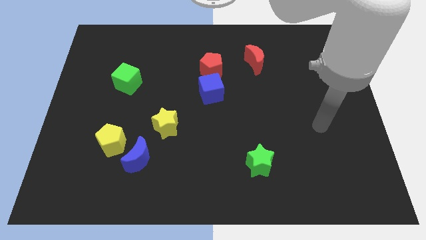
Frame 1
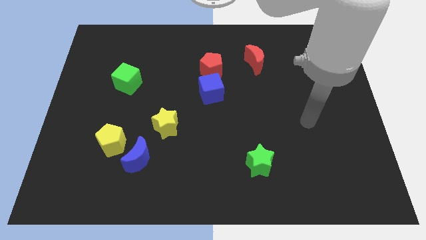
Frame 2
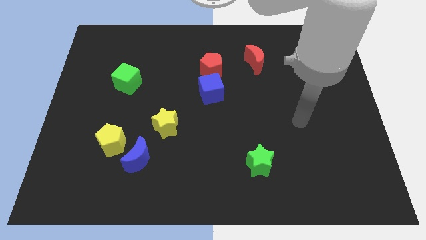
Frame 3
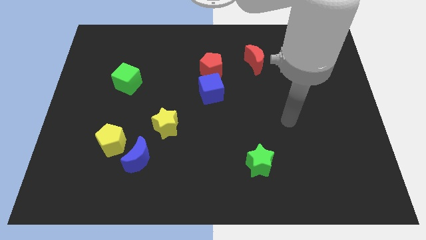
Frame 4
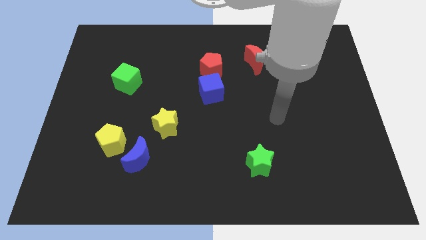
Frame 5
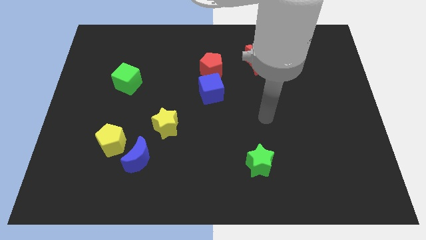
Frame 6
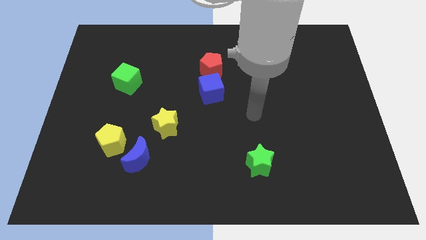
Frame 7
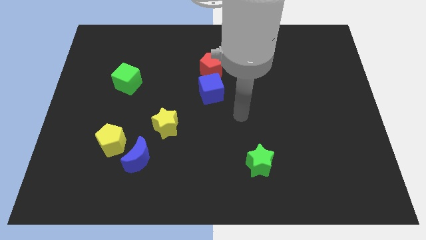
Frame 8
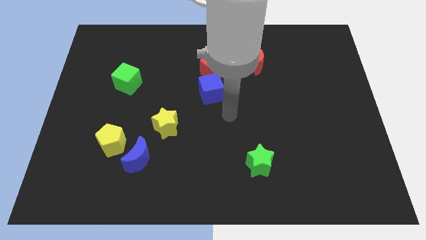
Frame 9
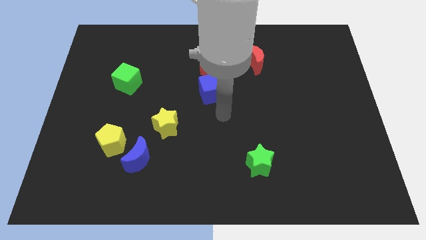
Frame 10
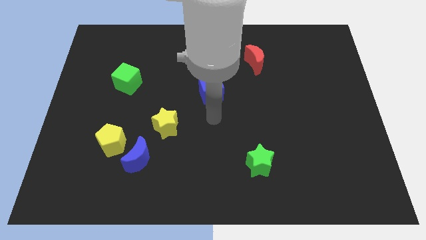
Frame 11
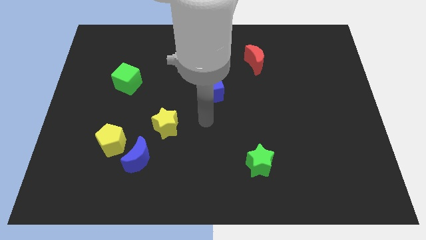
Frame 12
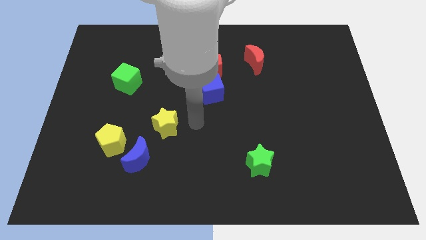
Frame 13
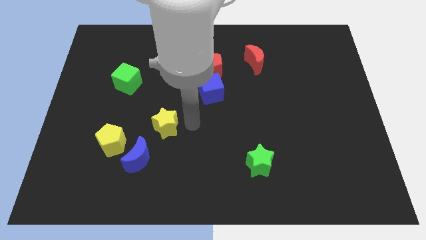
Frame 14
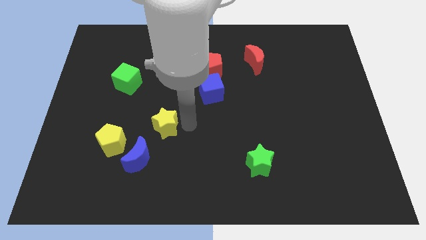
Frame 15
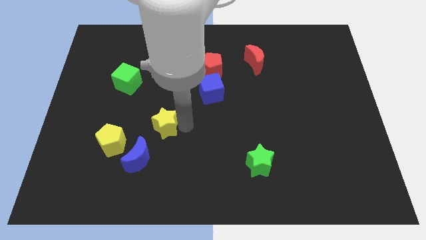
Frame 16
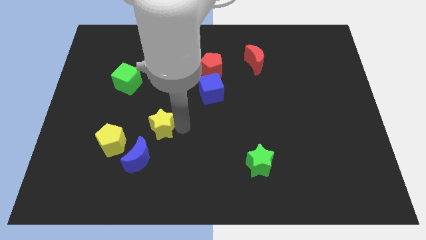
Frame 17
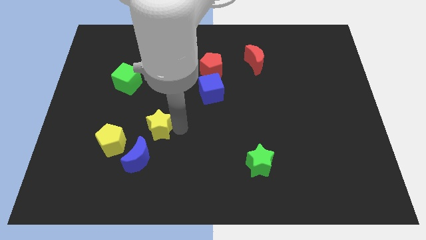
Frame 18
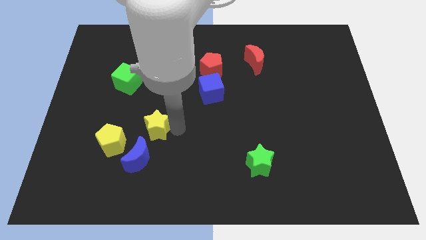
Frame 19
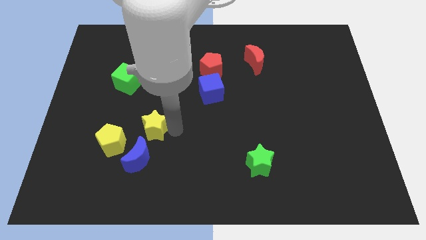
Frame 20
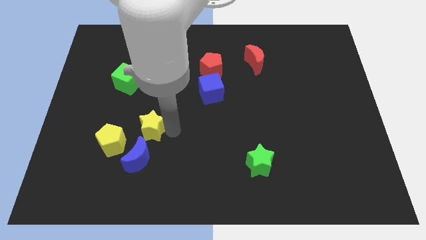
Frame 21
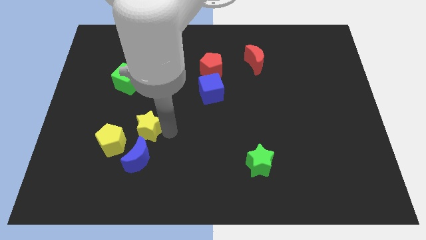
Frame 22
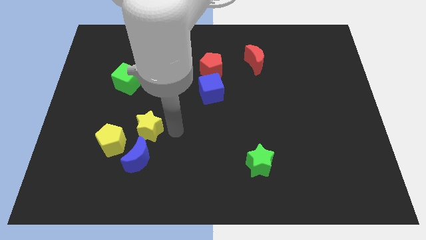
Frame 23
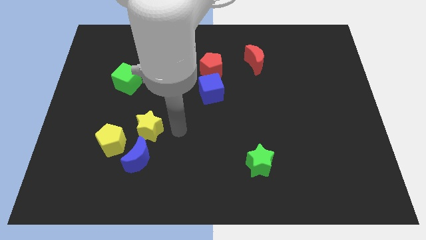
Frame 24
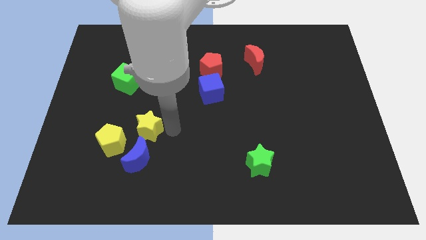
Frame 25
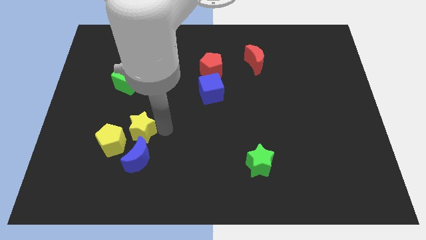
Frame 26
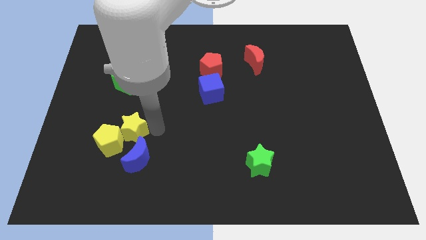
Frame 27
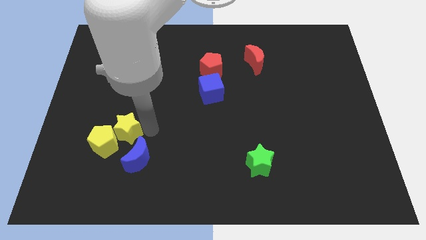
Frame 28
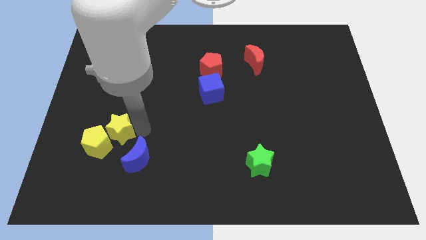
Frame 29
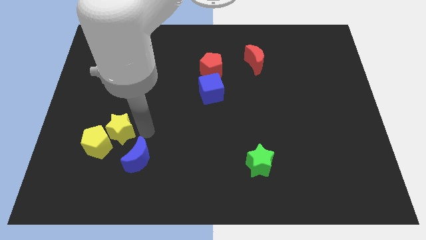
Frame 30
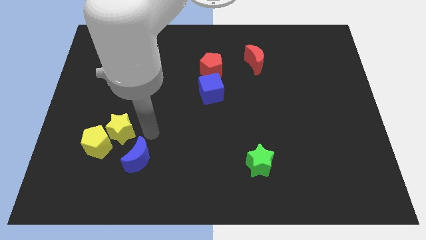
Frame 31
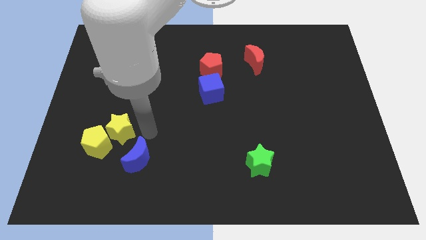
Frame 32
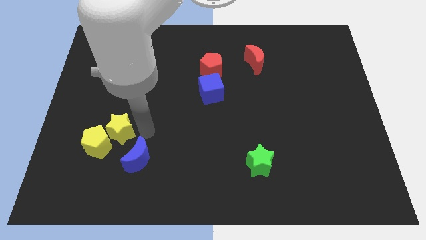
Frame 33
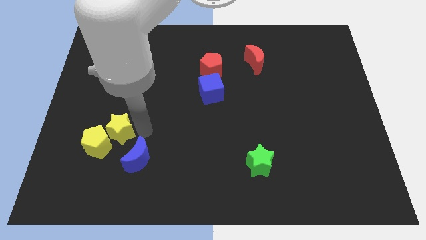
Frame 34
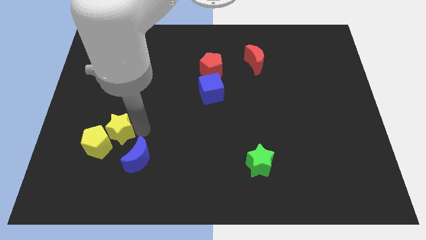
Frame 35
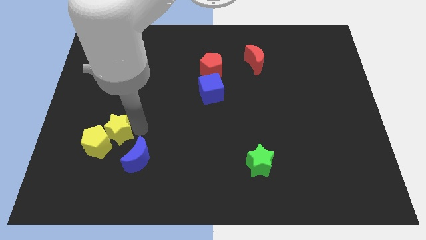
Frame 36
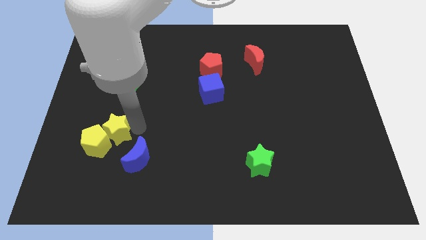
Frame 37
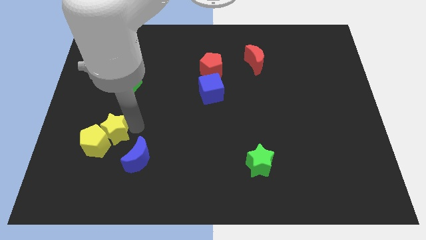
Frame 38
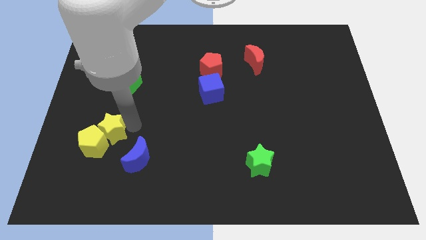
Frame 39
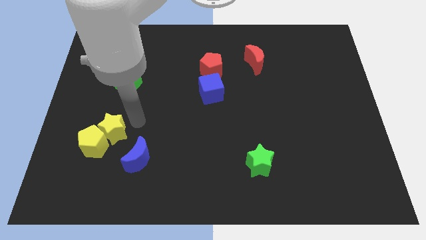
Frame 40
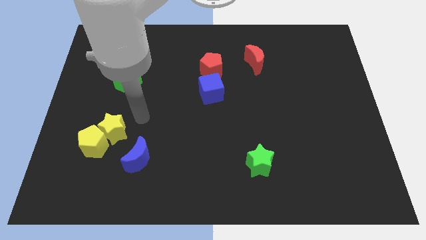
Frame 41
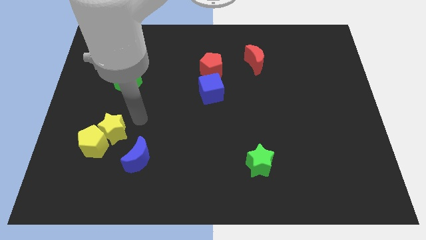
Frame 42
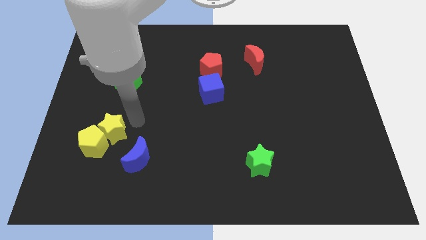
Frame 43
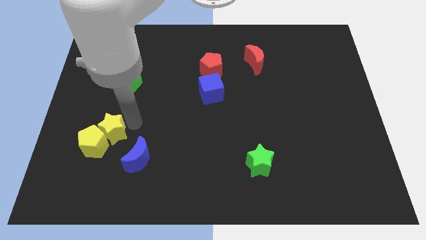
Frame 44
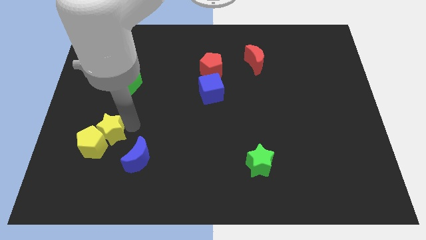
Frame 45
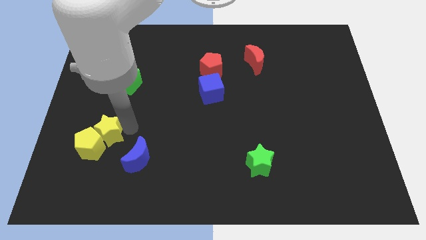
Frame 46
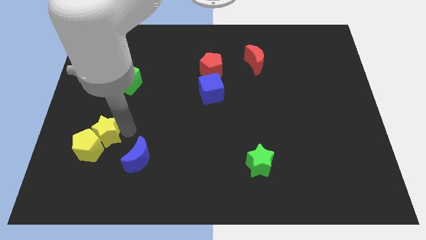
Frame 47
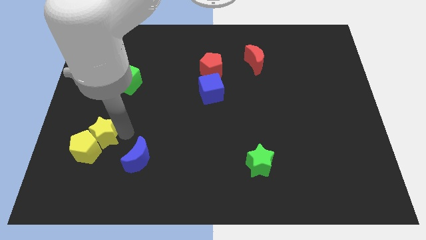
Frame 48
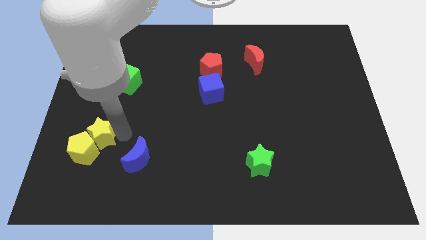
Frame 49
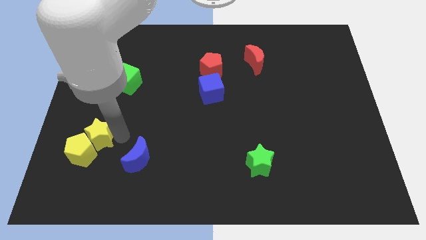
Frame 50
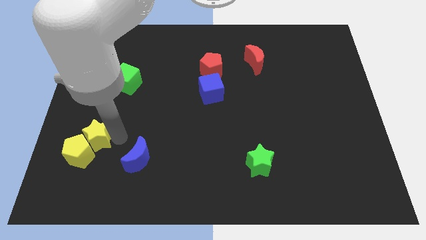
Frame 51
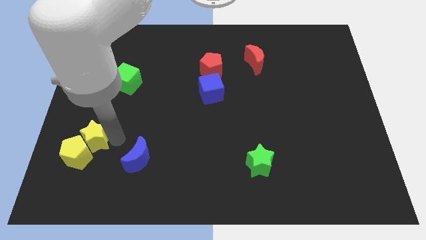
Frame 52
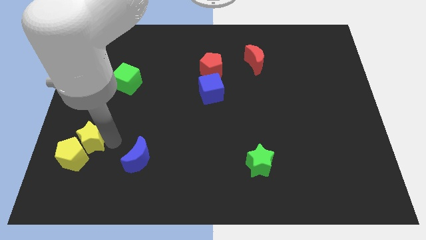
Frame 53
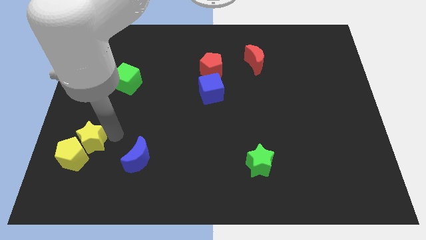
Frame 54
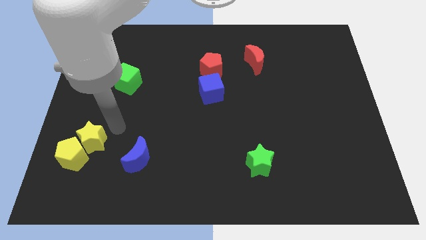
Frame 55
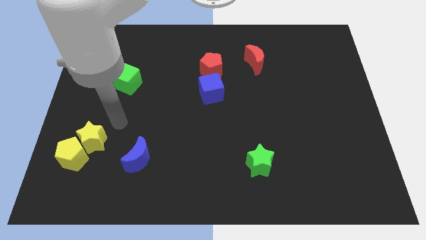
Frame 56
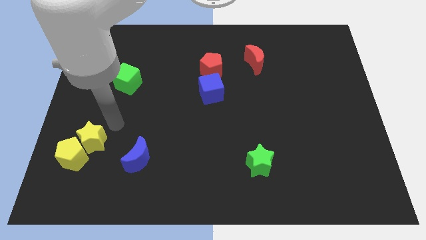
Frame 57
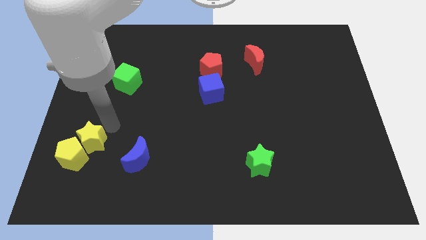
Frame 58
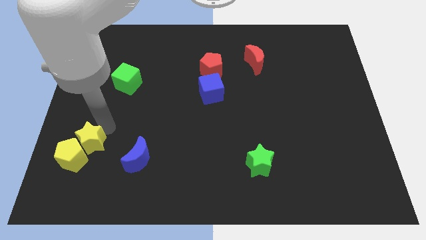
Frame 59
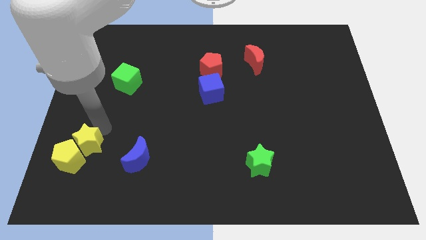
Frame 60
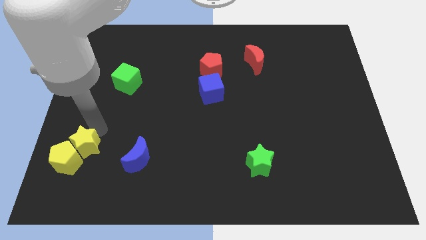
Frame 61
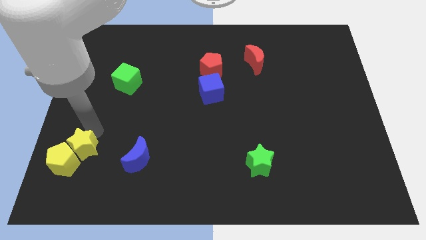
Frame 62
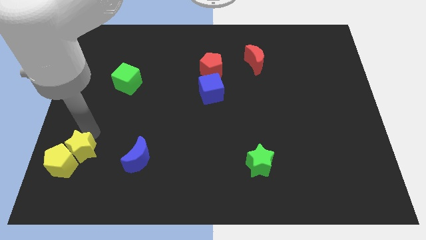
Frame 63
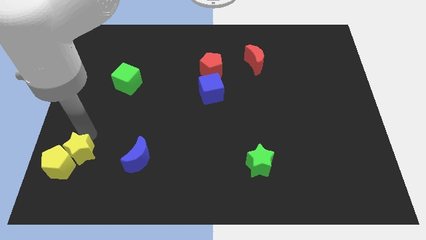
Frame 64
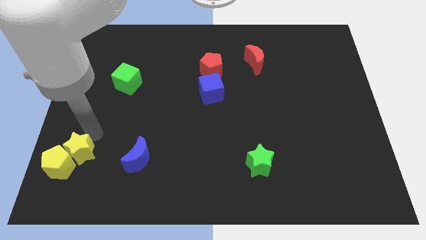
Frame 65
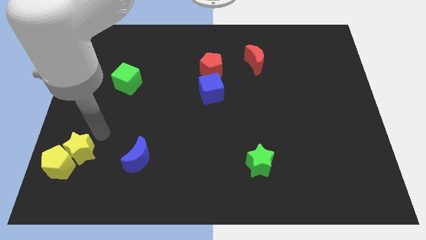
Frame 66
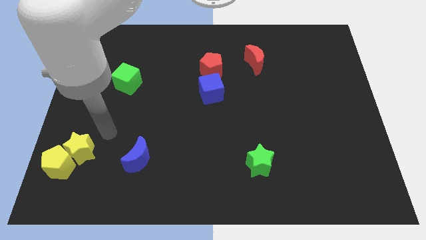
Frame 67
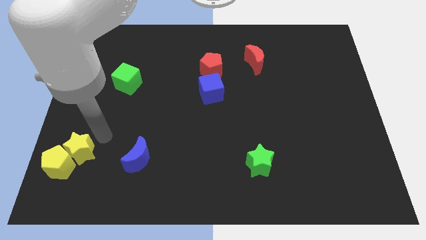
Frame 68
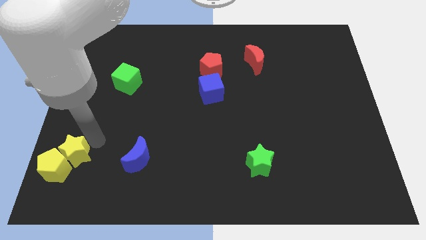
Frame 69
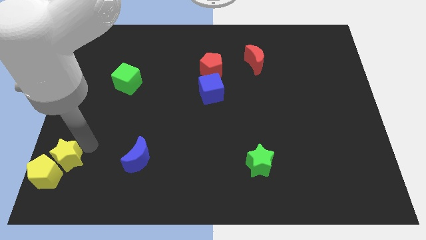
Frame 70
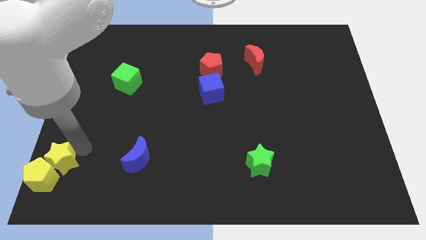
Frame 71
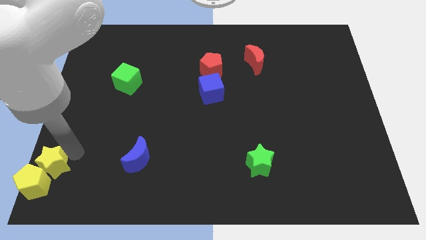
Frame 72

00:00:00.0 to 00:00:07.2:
slide the yellow star to the bottom left
